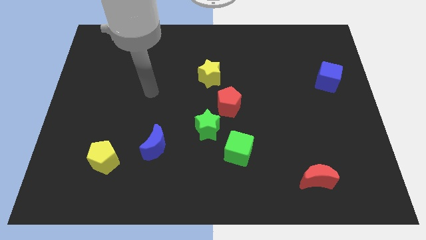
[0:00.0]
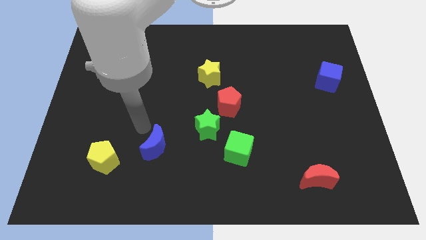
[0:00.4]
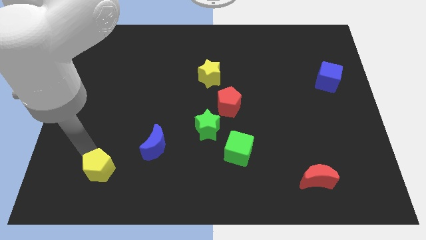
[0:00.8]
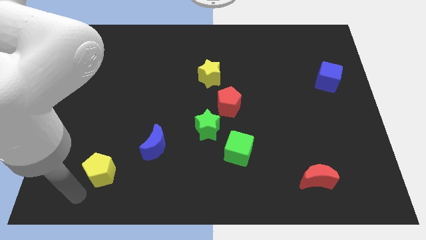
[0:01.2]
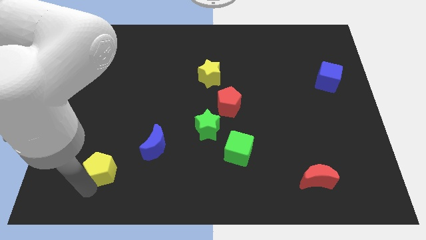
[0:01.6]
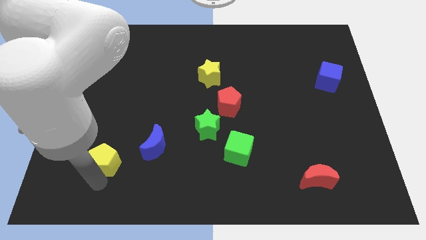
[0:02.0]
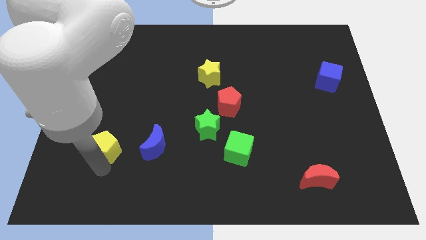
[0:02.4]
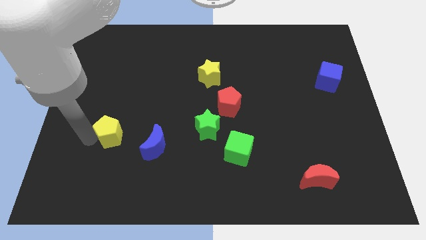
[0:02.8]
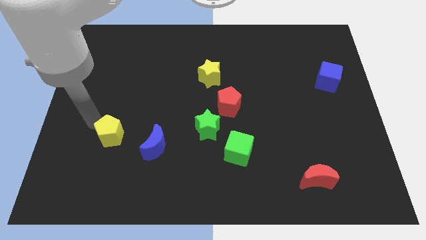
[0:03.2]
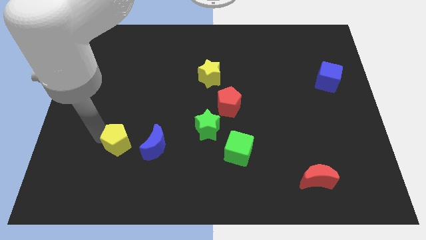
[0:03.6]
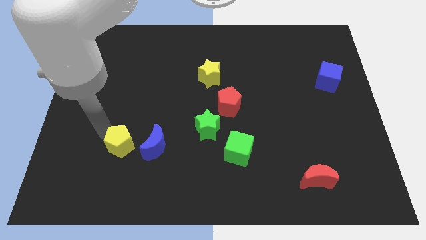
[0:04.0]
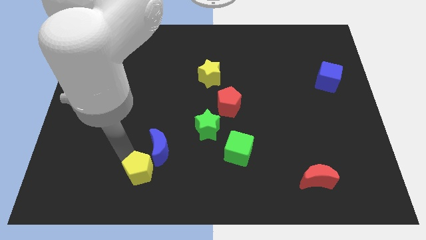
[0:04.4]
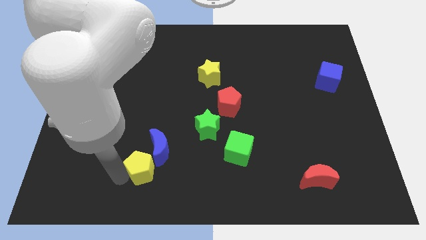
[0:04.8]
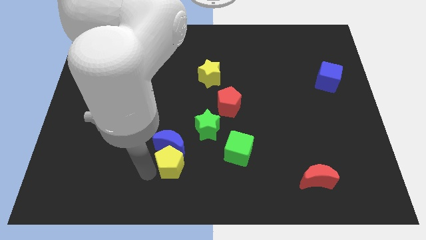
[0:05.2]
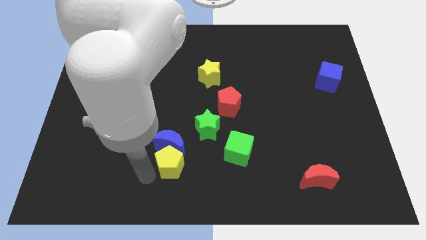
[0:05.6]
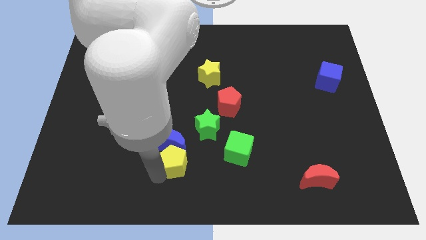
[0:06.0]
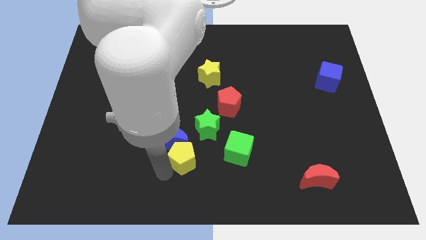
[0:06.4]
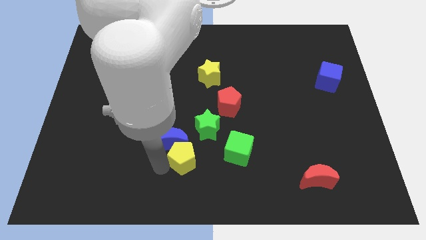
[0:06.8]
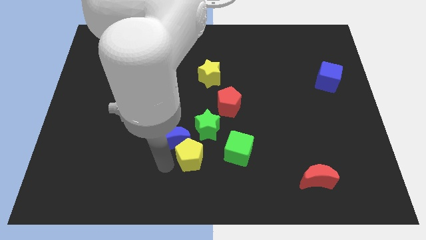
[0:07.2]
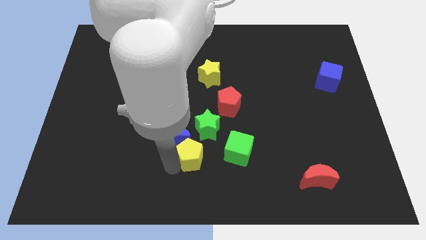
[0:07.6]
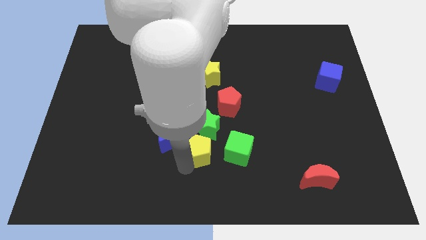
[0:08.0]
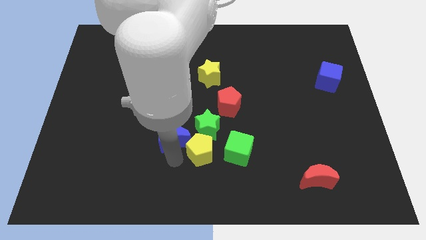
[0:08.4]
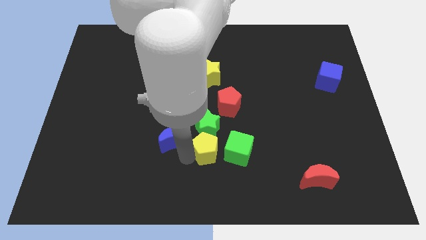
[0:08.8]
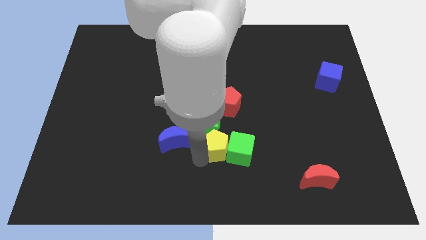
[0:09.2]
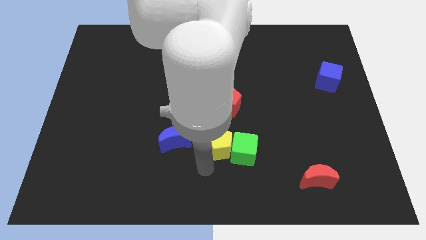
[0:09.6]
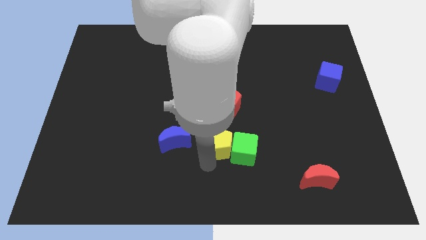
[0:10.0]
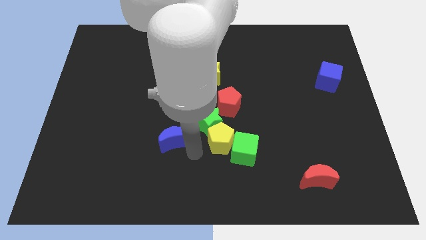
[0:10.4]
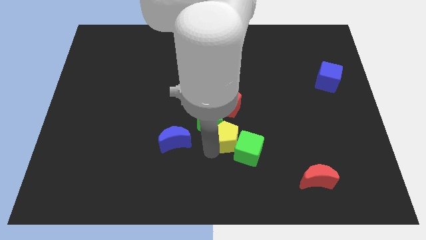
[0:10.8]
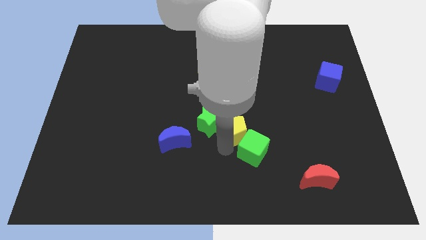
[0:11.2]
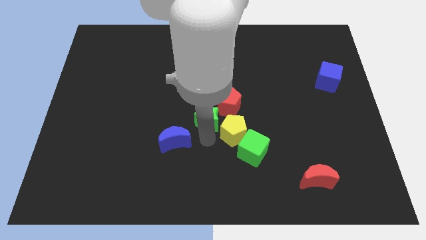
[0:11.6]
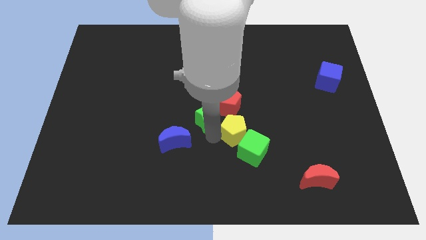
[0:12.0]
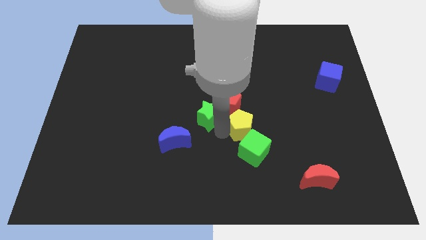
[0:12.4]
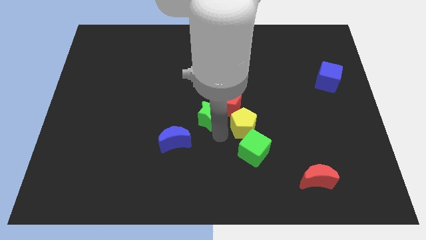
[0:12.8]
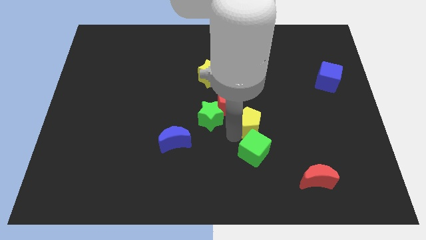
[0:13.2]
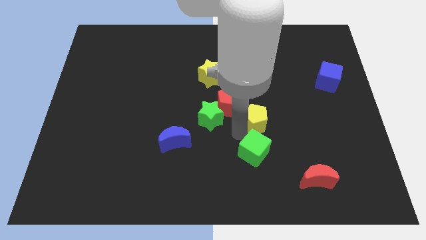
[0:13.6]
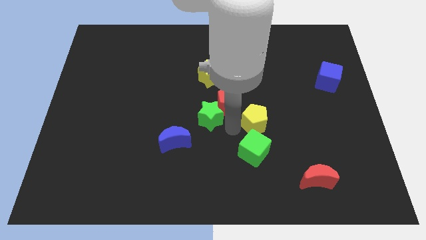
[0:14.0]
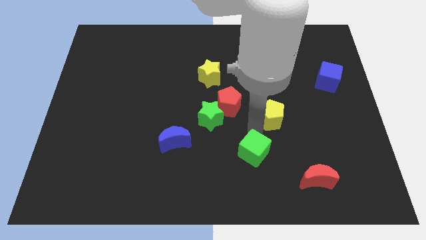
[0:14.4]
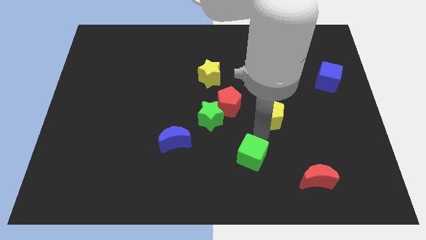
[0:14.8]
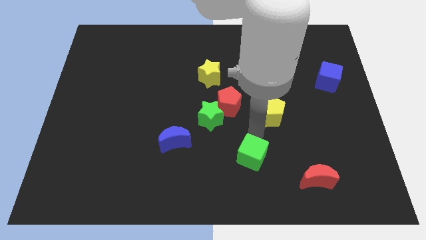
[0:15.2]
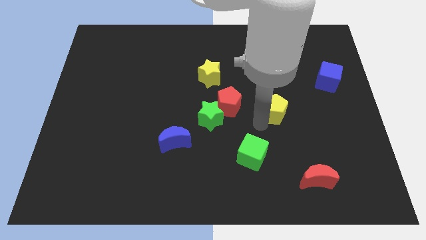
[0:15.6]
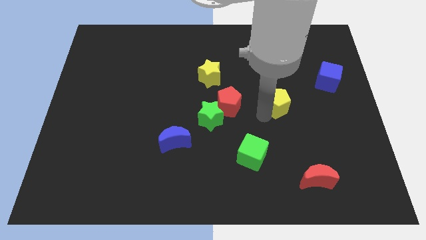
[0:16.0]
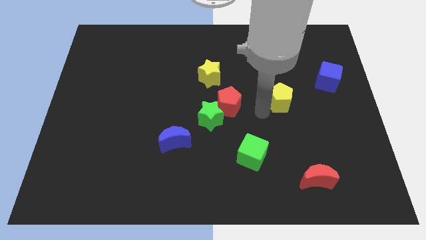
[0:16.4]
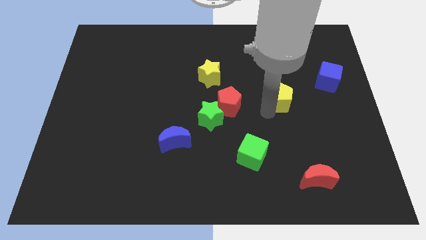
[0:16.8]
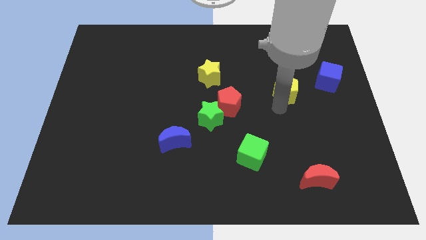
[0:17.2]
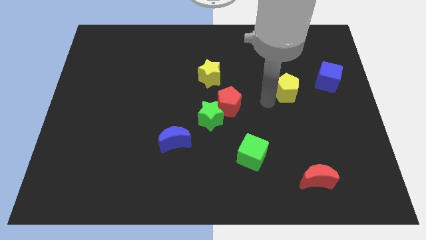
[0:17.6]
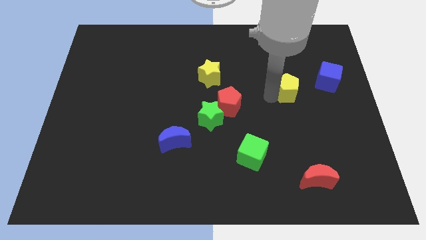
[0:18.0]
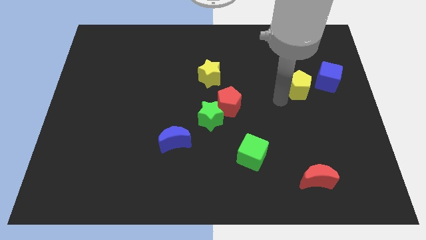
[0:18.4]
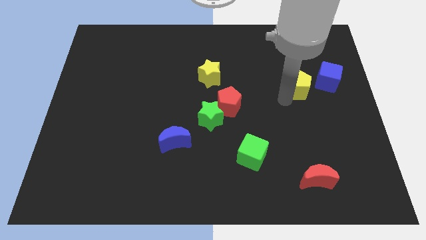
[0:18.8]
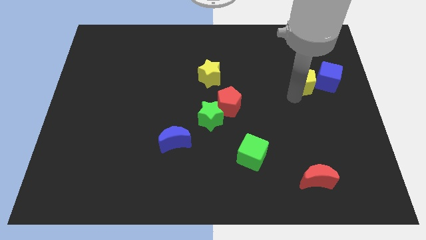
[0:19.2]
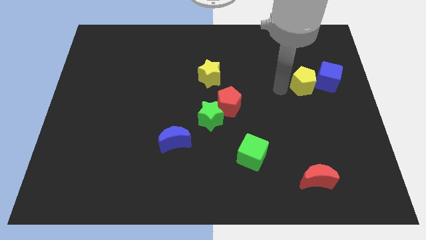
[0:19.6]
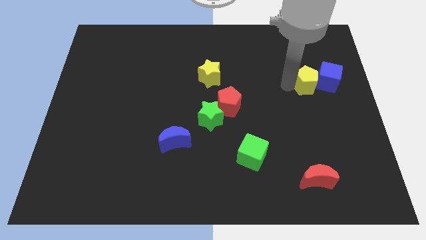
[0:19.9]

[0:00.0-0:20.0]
move the yellow pentagon towards the blue cube

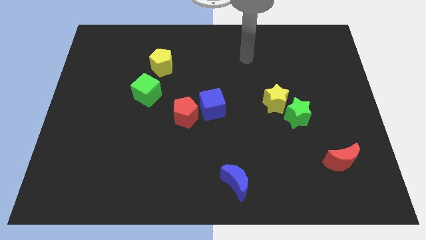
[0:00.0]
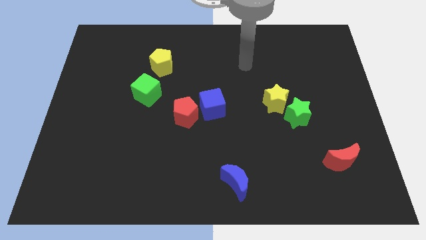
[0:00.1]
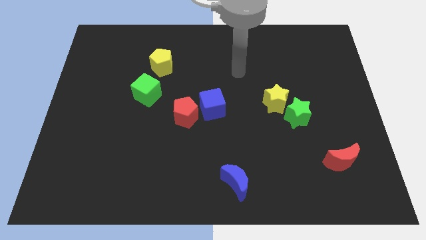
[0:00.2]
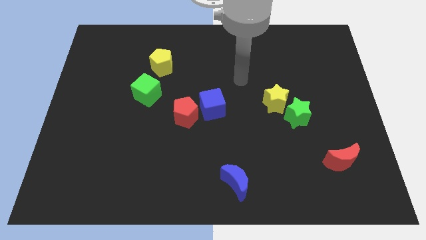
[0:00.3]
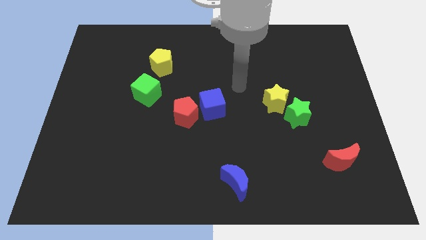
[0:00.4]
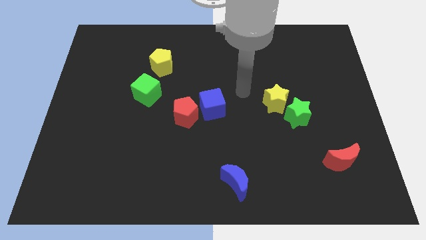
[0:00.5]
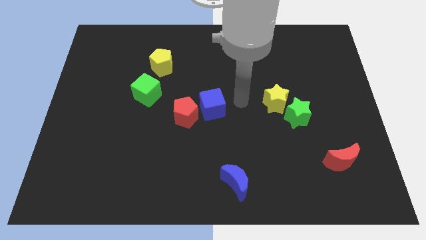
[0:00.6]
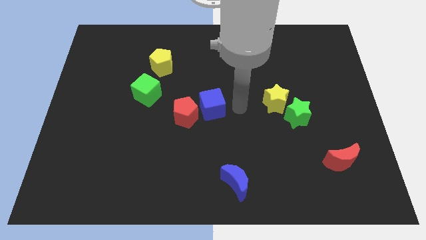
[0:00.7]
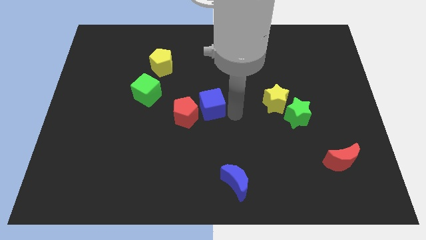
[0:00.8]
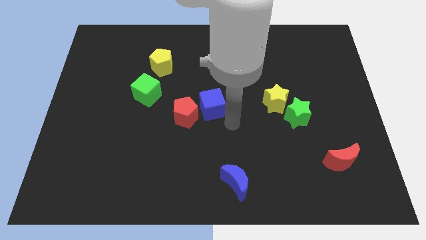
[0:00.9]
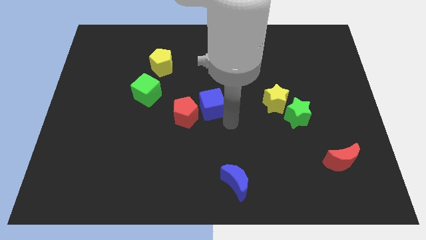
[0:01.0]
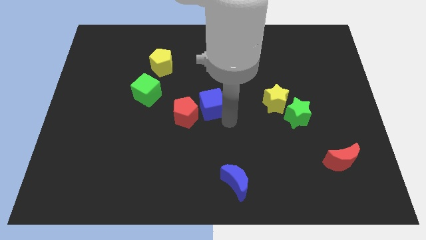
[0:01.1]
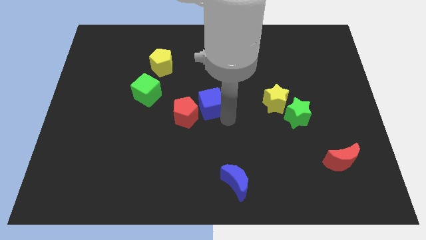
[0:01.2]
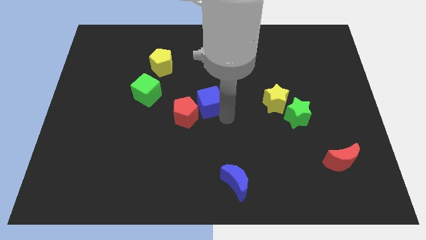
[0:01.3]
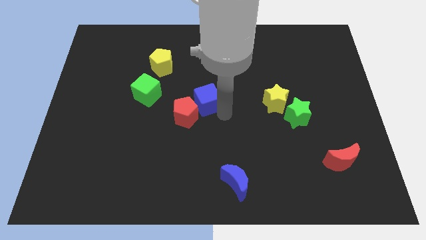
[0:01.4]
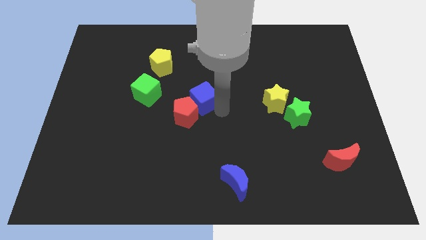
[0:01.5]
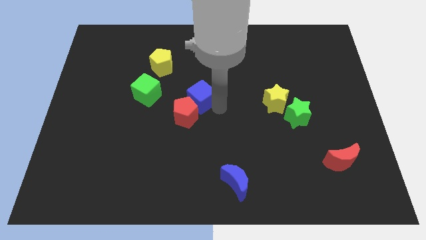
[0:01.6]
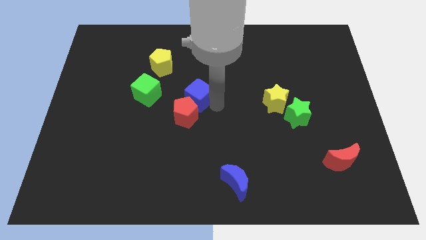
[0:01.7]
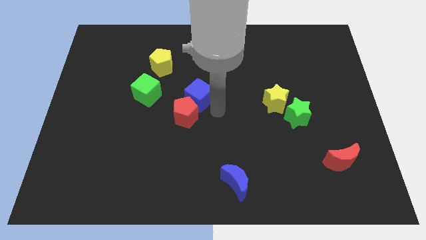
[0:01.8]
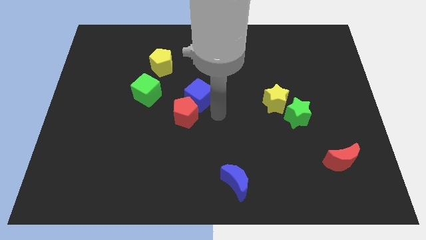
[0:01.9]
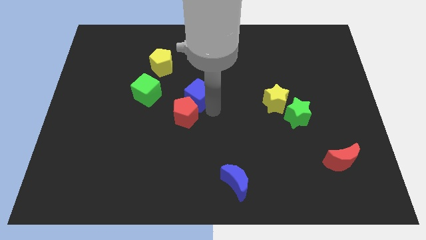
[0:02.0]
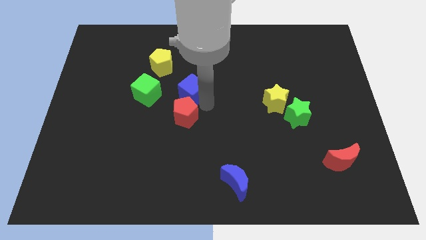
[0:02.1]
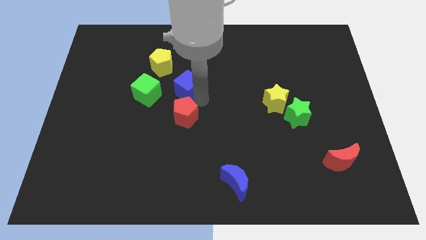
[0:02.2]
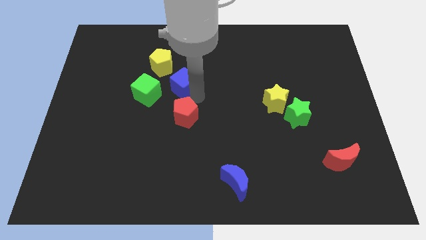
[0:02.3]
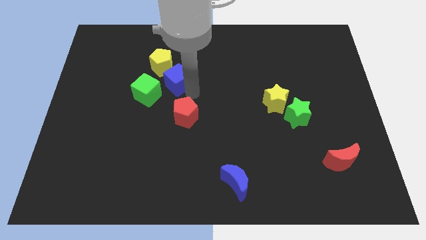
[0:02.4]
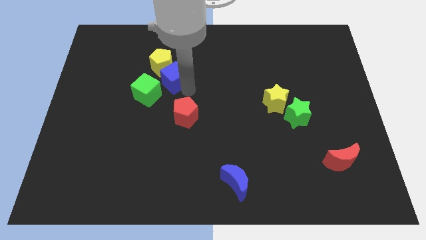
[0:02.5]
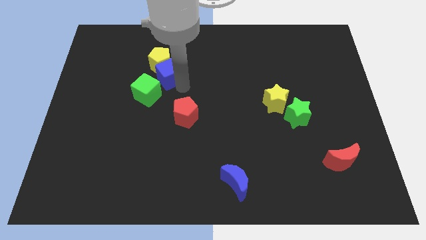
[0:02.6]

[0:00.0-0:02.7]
push the blue cube next to the yellow pentagon
